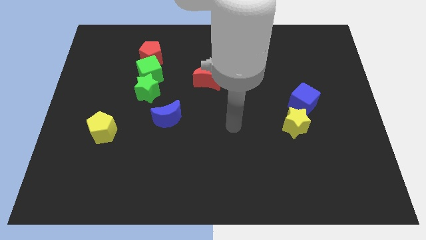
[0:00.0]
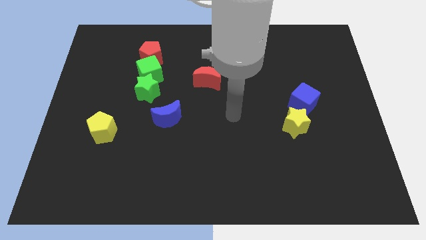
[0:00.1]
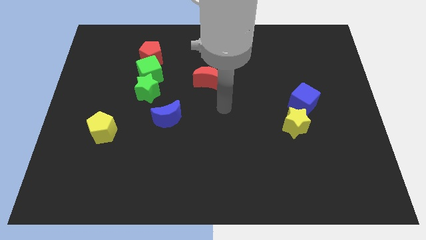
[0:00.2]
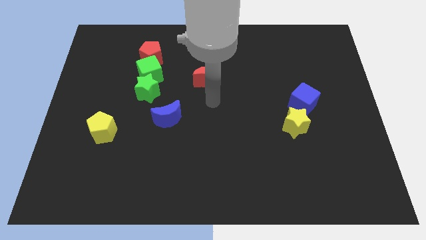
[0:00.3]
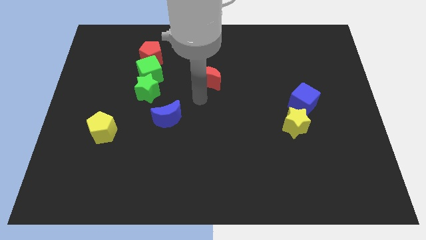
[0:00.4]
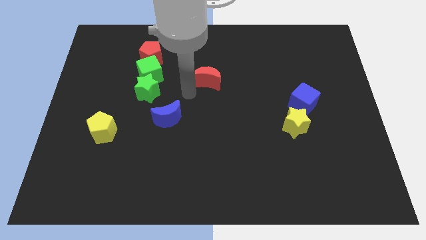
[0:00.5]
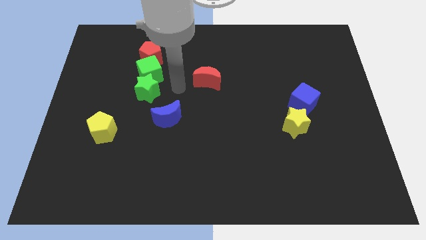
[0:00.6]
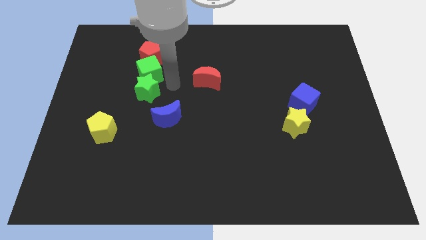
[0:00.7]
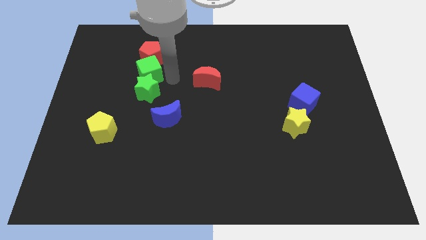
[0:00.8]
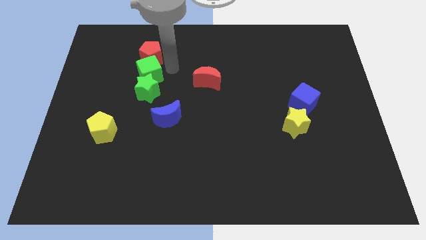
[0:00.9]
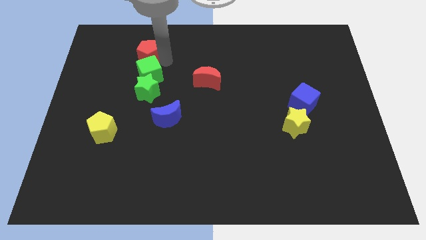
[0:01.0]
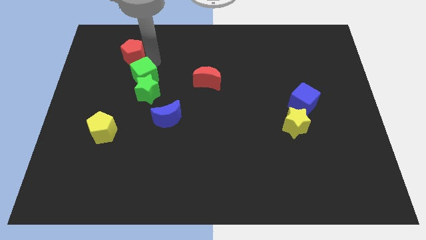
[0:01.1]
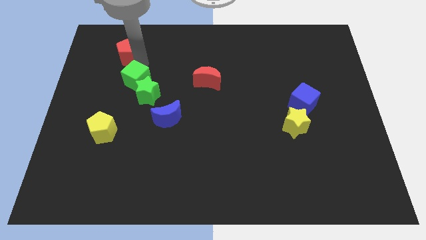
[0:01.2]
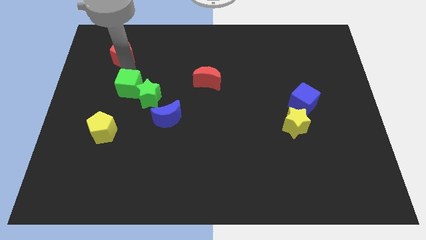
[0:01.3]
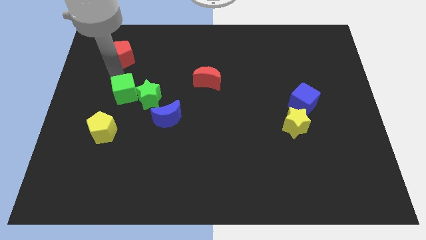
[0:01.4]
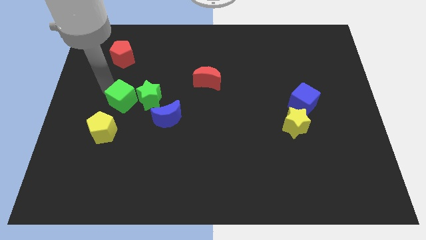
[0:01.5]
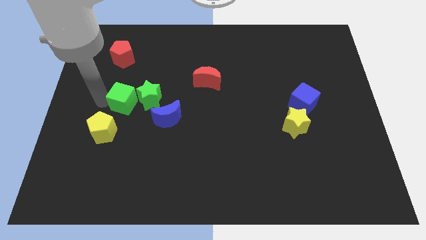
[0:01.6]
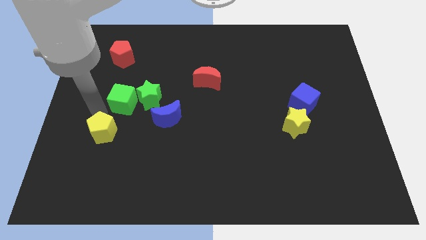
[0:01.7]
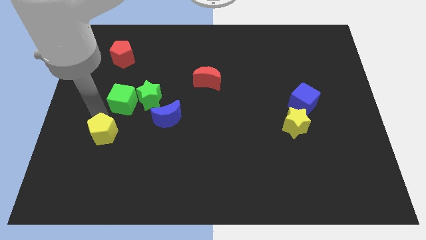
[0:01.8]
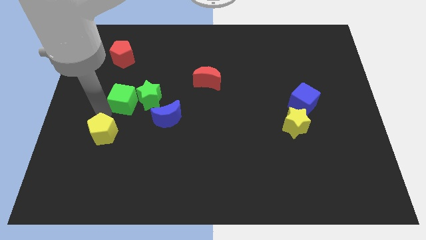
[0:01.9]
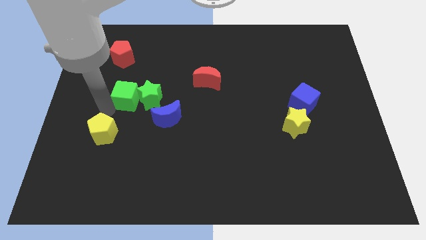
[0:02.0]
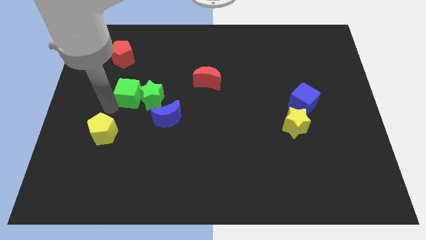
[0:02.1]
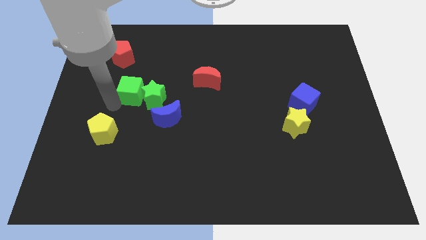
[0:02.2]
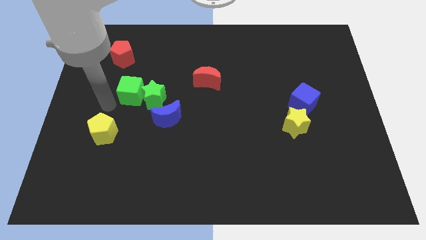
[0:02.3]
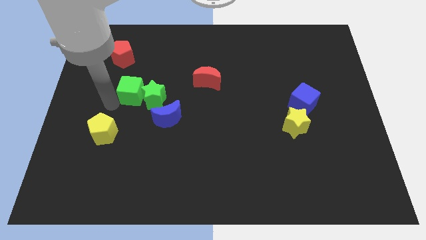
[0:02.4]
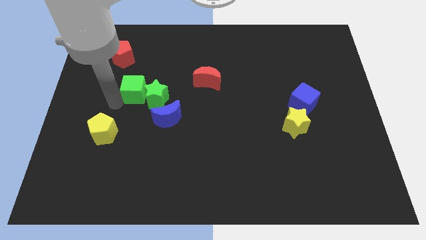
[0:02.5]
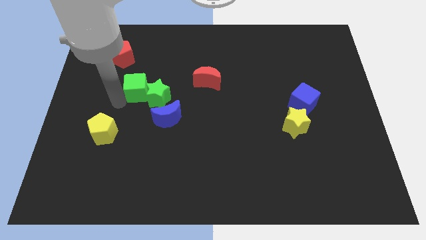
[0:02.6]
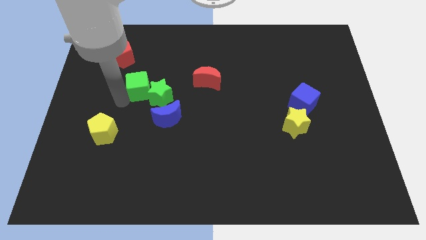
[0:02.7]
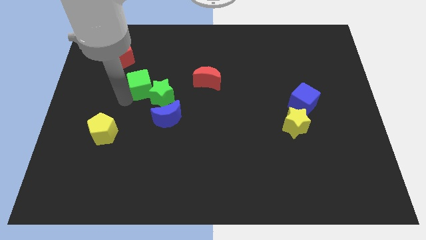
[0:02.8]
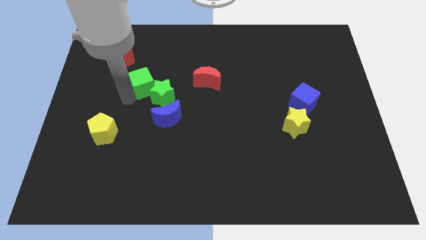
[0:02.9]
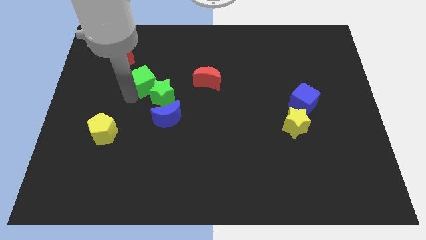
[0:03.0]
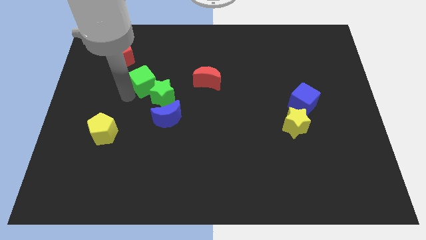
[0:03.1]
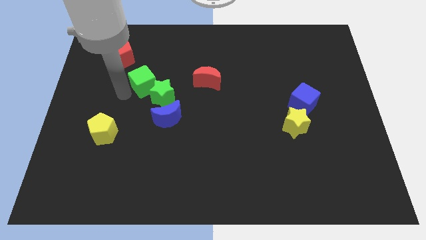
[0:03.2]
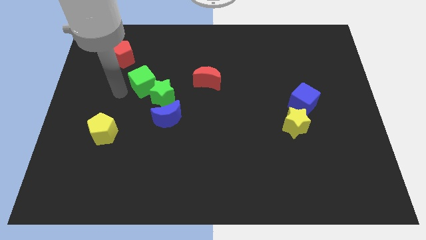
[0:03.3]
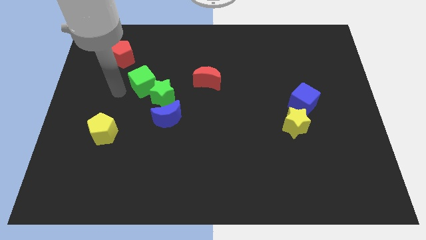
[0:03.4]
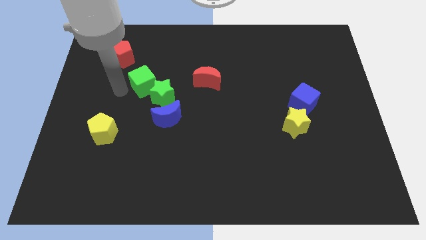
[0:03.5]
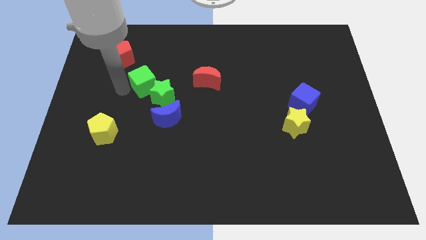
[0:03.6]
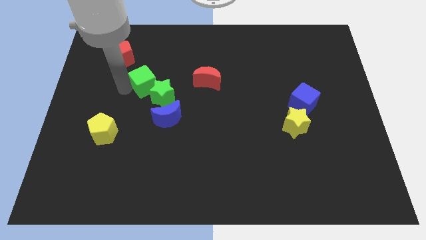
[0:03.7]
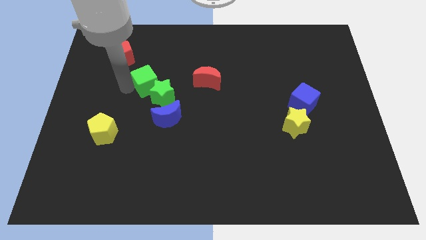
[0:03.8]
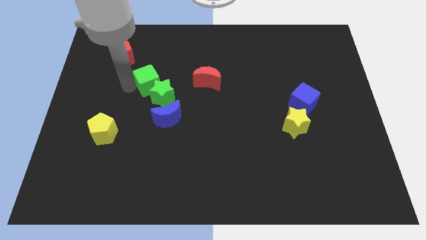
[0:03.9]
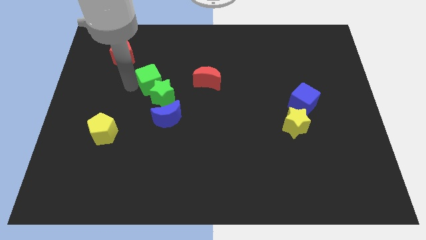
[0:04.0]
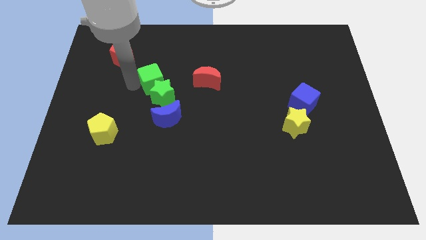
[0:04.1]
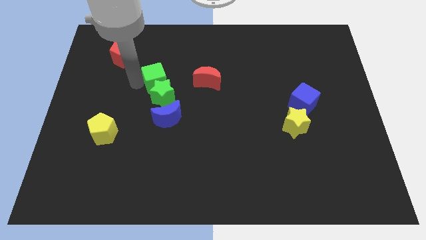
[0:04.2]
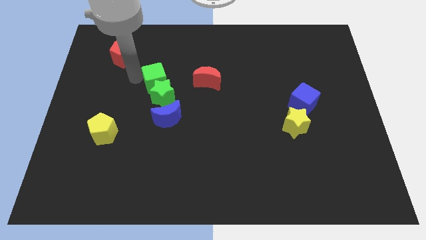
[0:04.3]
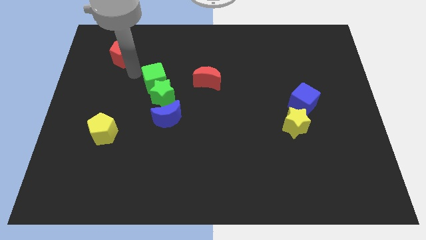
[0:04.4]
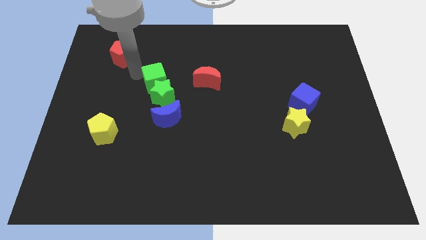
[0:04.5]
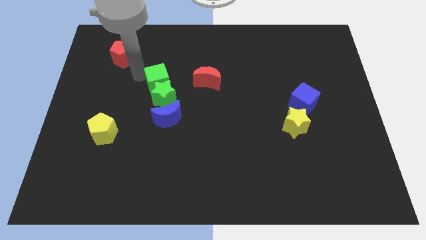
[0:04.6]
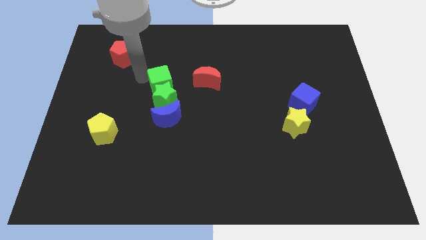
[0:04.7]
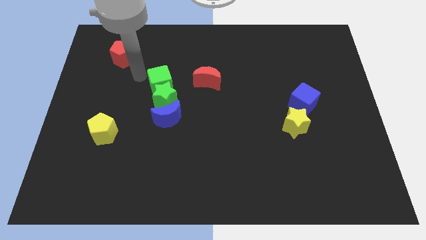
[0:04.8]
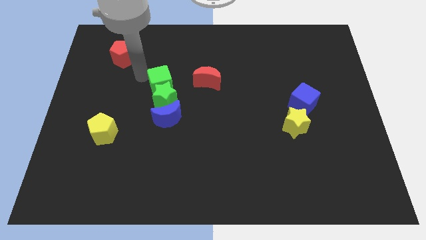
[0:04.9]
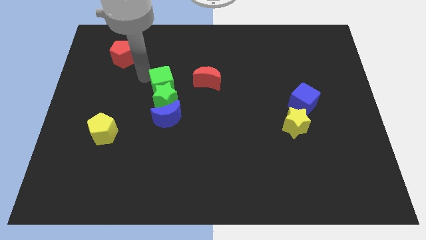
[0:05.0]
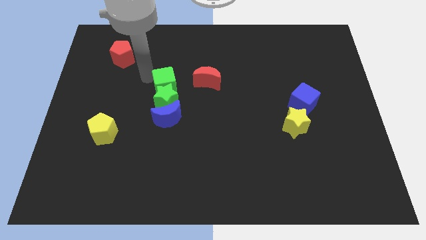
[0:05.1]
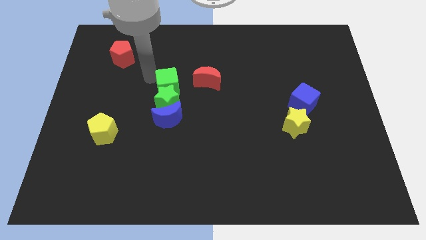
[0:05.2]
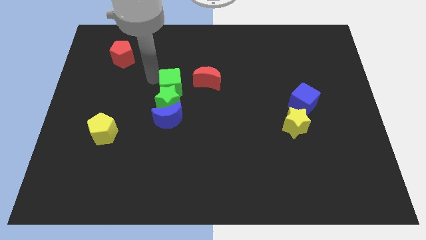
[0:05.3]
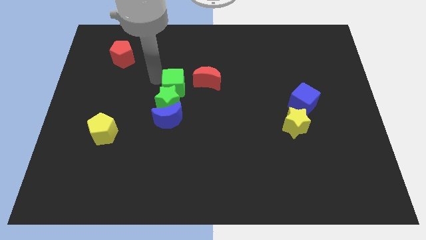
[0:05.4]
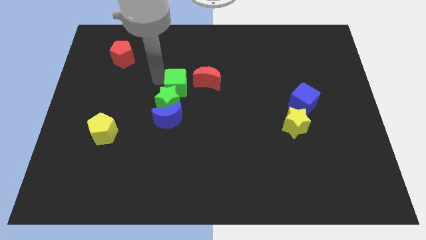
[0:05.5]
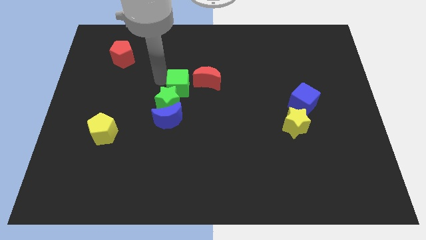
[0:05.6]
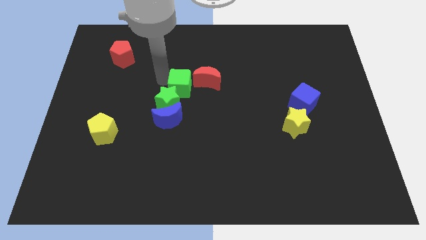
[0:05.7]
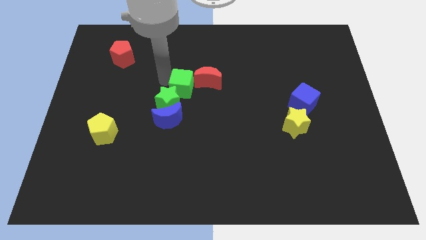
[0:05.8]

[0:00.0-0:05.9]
move the green cube away from the green star and red pentagon

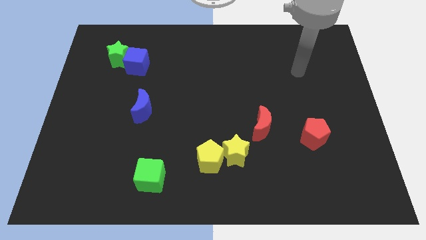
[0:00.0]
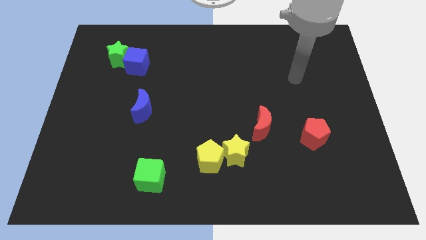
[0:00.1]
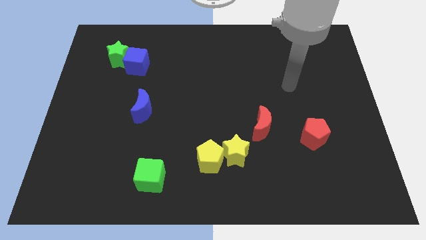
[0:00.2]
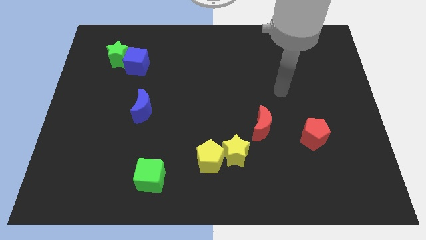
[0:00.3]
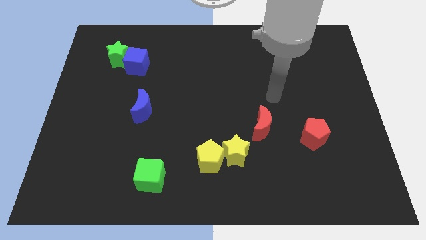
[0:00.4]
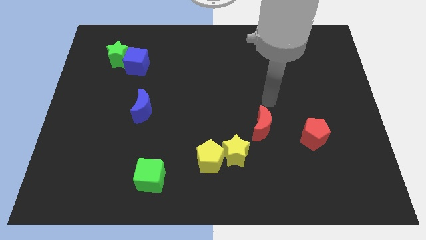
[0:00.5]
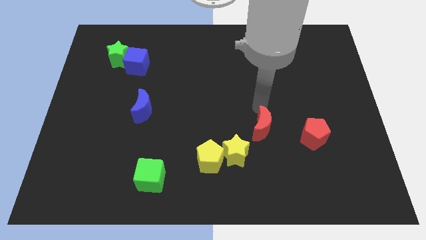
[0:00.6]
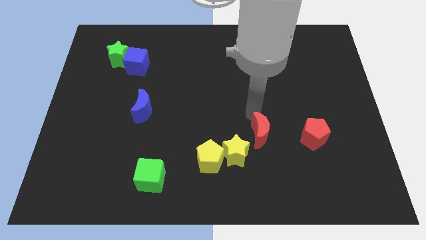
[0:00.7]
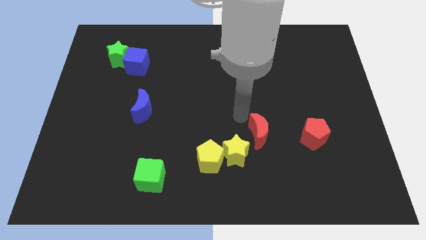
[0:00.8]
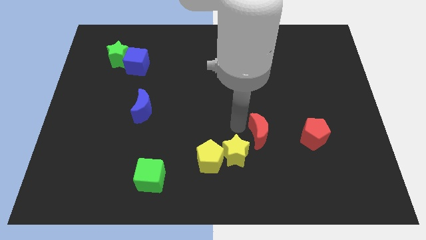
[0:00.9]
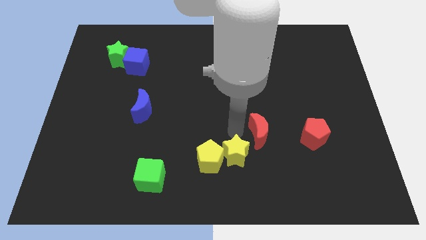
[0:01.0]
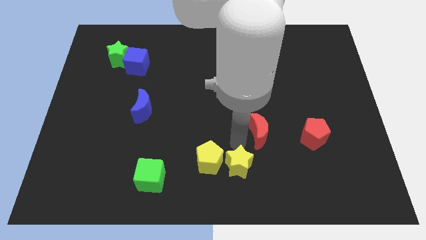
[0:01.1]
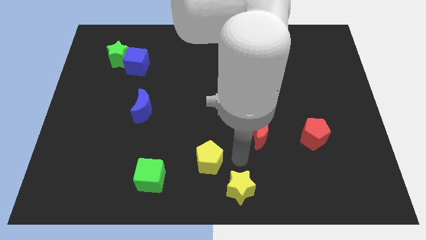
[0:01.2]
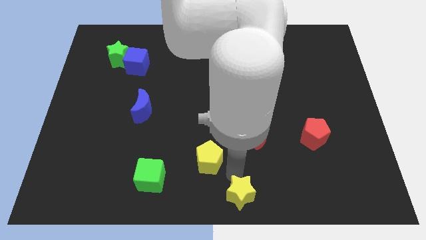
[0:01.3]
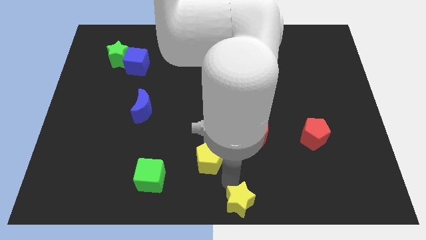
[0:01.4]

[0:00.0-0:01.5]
pull the yellow pentagon apart from the yellow star

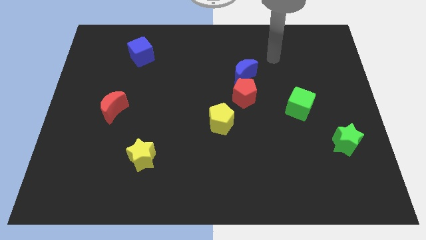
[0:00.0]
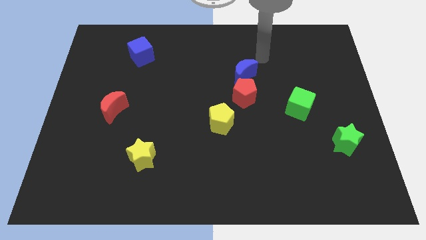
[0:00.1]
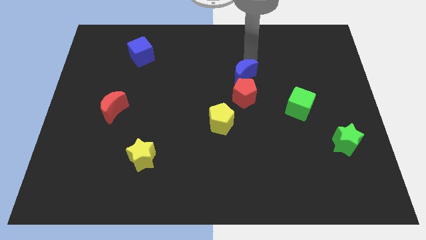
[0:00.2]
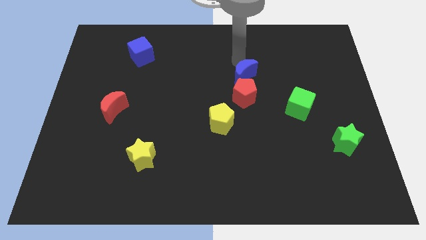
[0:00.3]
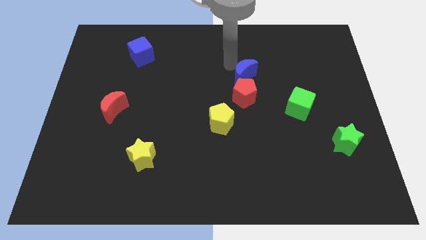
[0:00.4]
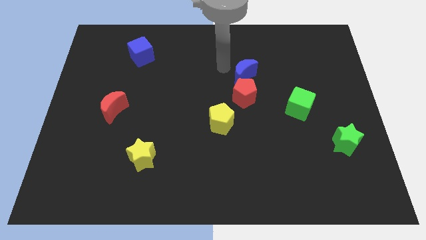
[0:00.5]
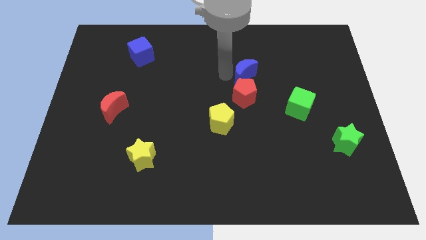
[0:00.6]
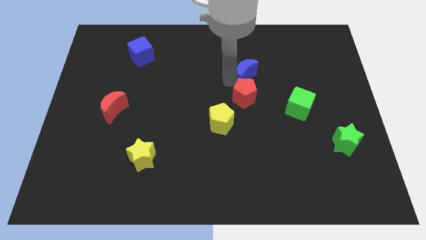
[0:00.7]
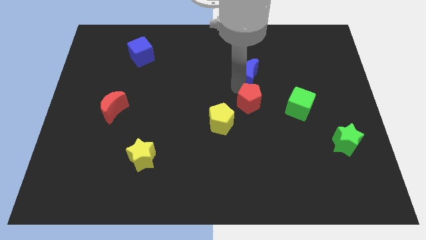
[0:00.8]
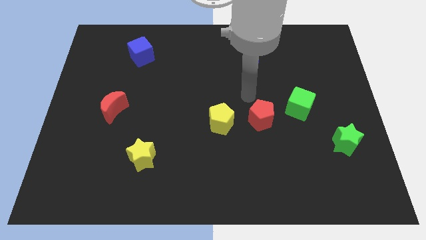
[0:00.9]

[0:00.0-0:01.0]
move the blue moon away from the red pentagon

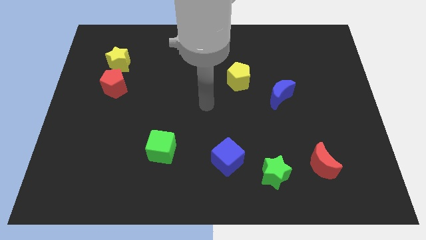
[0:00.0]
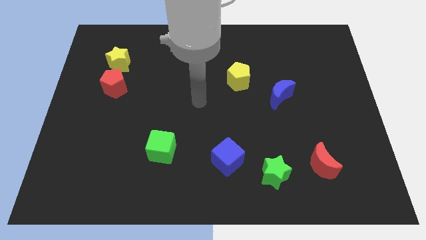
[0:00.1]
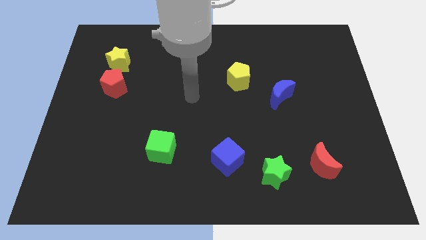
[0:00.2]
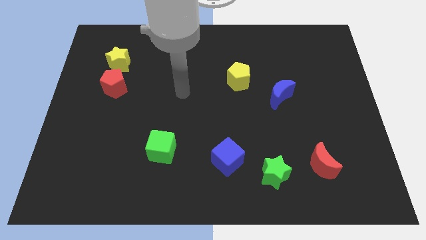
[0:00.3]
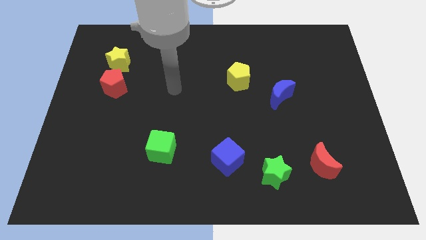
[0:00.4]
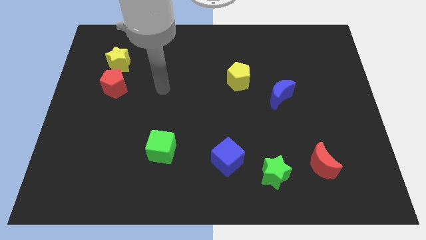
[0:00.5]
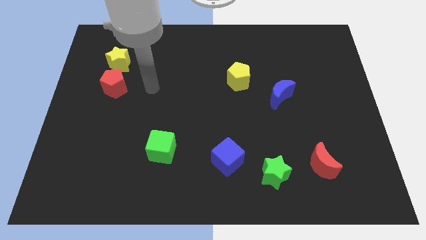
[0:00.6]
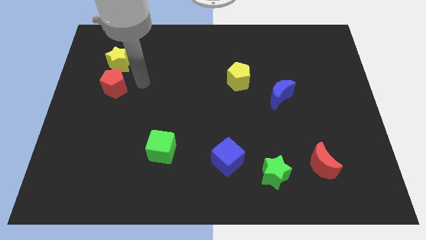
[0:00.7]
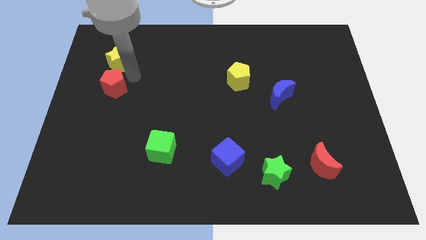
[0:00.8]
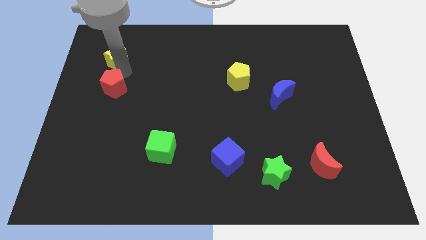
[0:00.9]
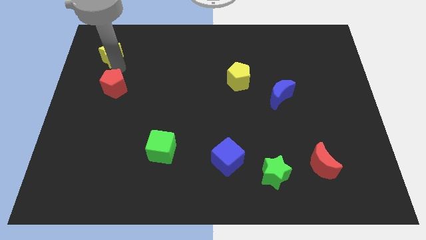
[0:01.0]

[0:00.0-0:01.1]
move the red pentagon away from the yellow star

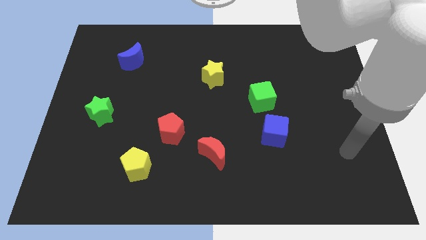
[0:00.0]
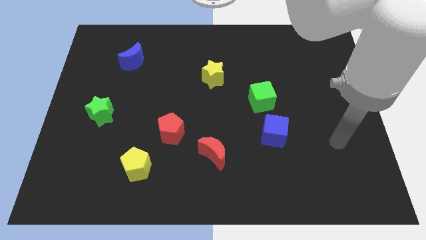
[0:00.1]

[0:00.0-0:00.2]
move the blue cube away from the green cube
